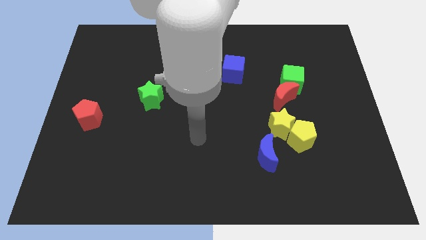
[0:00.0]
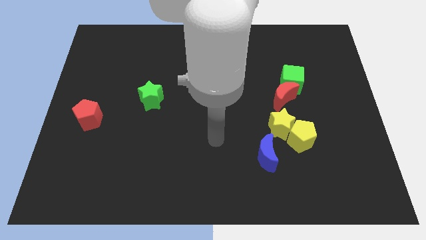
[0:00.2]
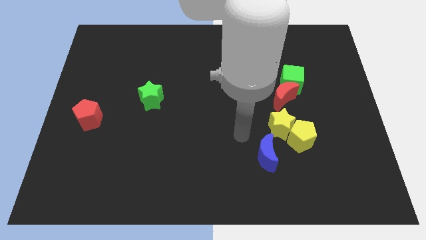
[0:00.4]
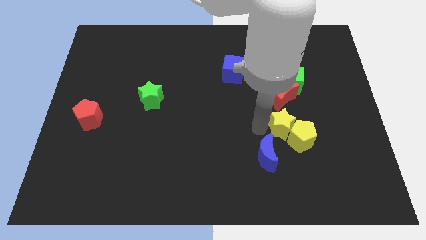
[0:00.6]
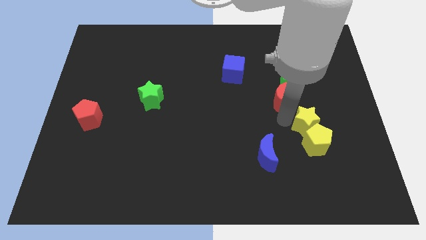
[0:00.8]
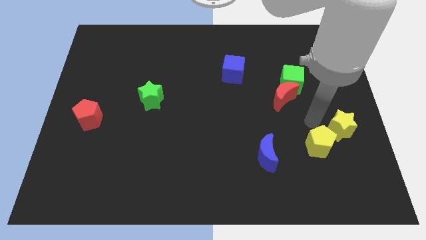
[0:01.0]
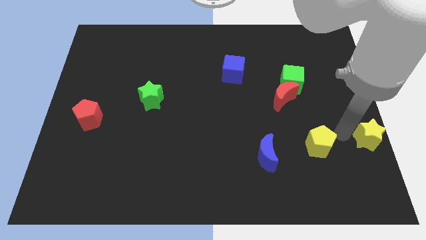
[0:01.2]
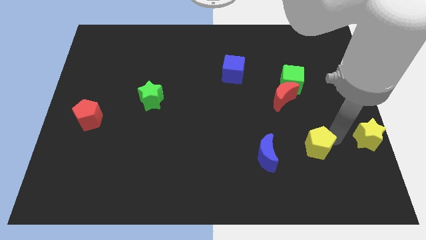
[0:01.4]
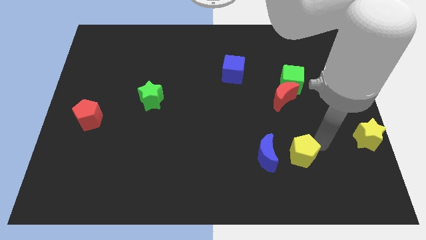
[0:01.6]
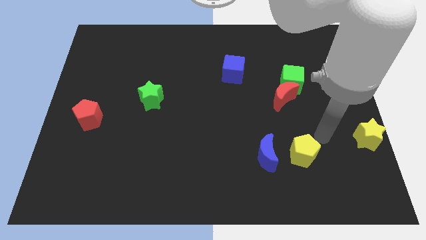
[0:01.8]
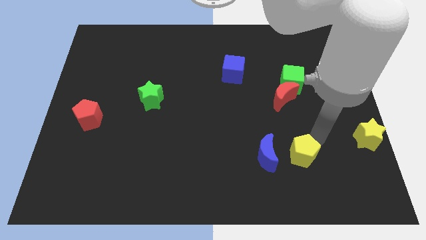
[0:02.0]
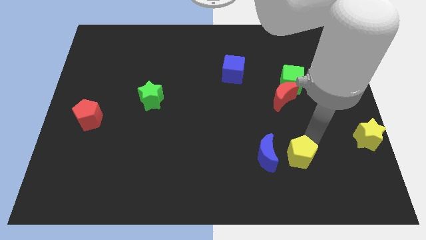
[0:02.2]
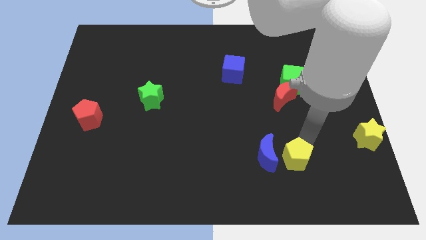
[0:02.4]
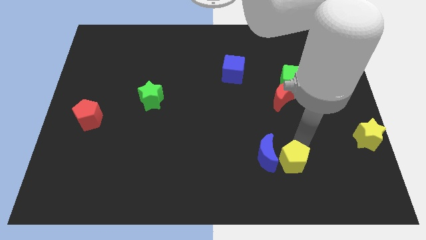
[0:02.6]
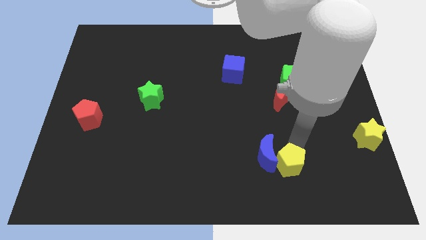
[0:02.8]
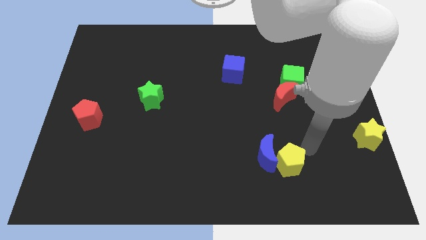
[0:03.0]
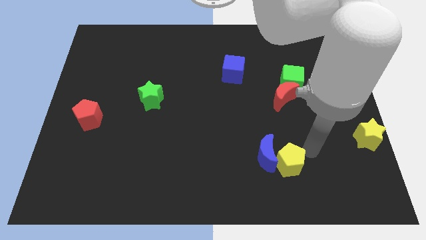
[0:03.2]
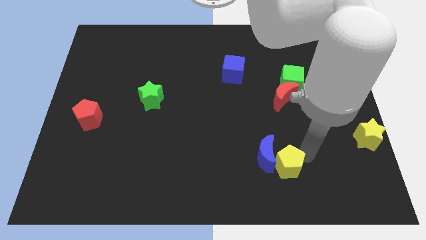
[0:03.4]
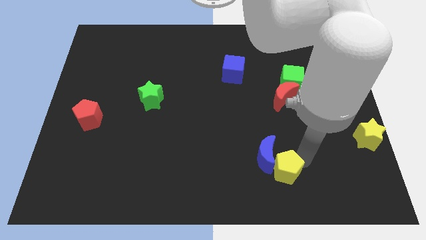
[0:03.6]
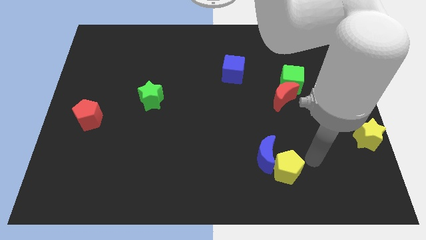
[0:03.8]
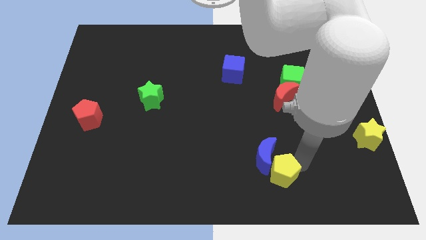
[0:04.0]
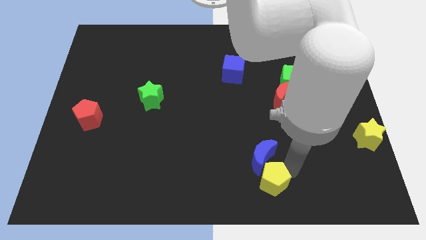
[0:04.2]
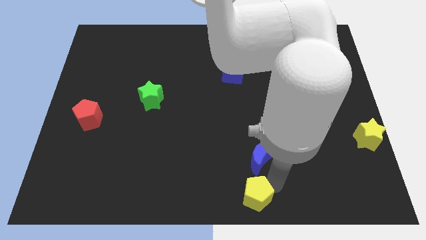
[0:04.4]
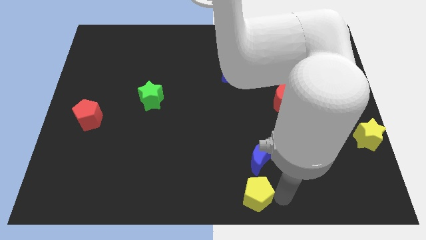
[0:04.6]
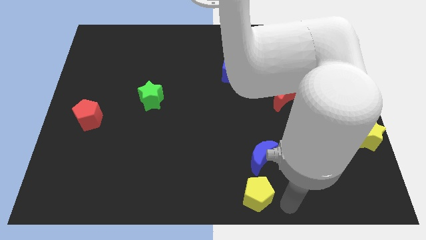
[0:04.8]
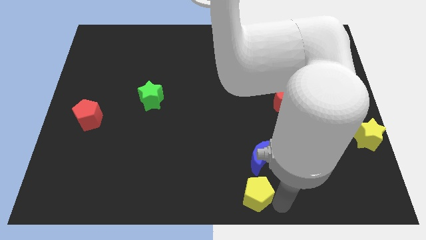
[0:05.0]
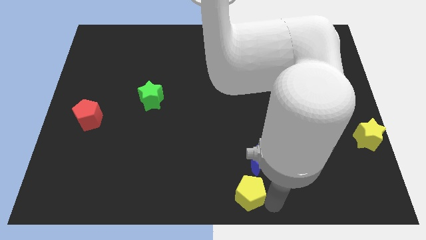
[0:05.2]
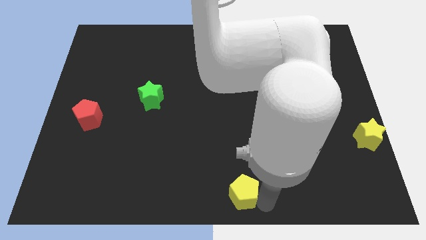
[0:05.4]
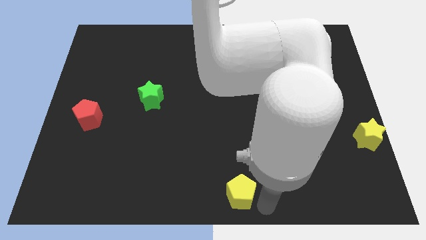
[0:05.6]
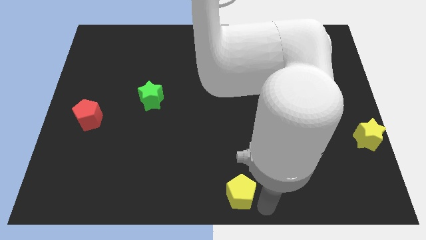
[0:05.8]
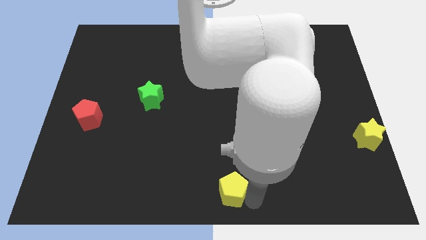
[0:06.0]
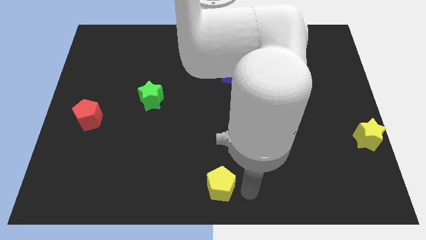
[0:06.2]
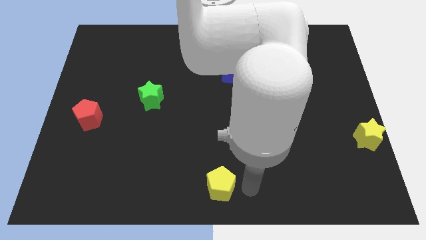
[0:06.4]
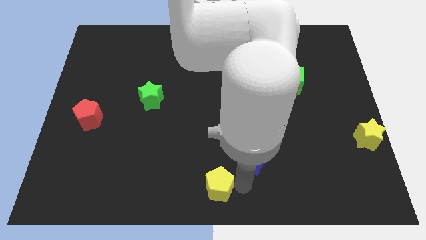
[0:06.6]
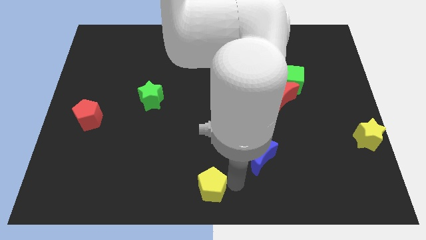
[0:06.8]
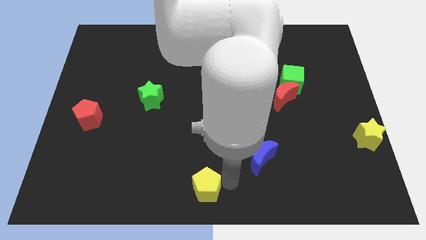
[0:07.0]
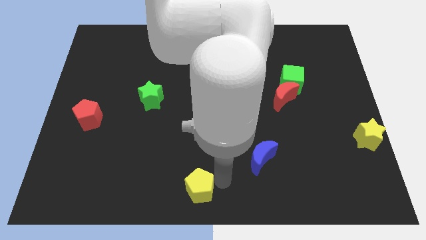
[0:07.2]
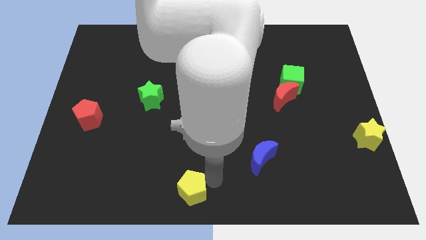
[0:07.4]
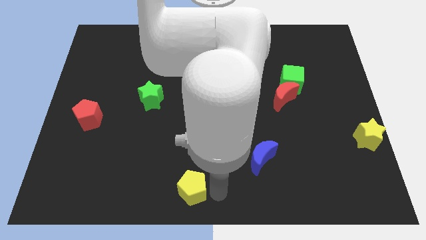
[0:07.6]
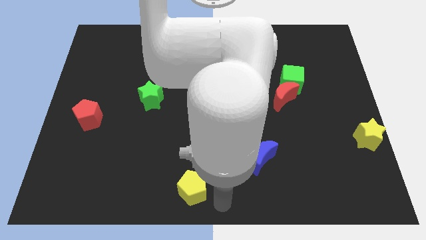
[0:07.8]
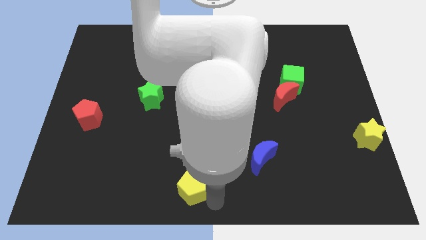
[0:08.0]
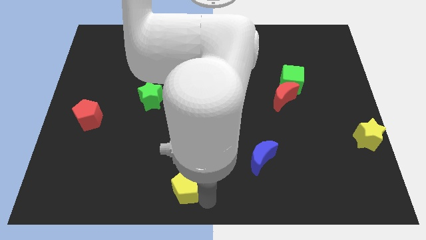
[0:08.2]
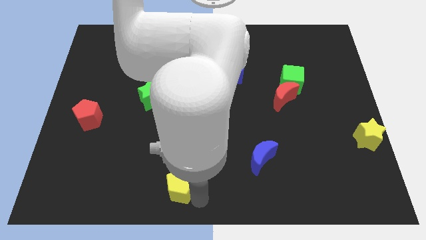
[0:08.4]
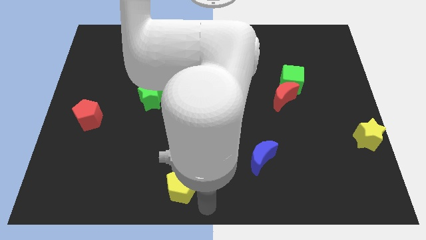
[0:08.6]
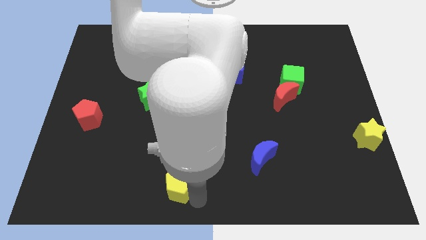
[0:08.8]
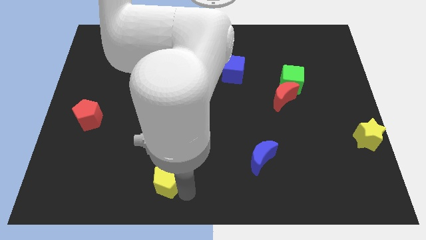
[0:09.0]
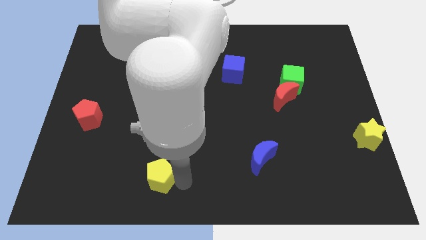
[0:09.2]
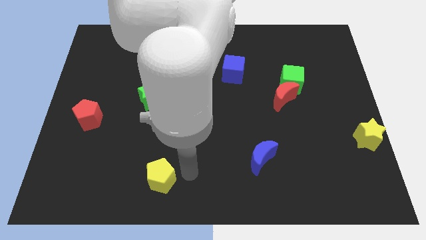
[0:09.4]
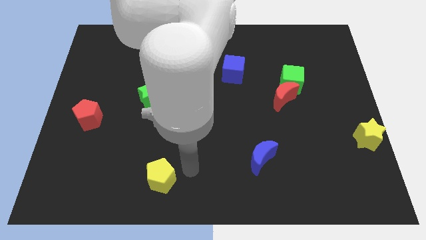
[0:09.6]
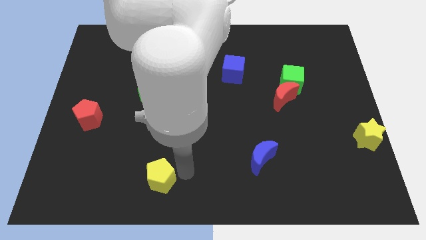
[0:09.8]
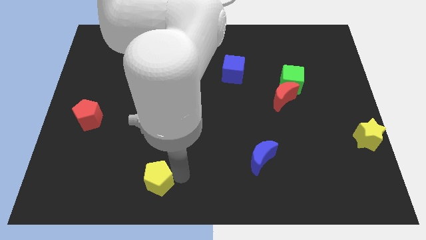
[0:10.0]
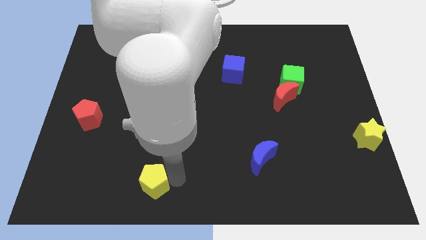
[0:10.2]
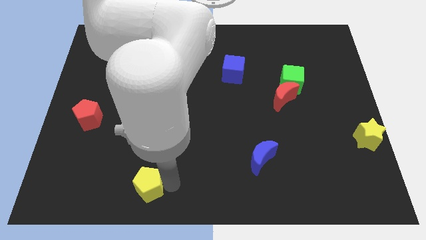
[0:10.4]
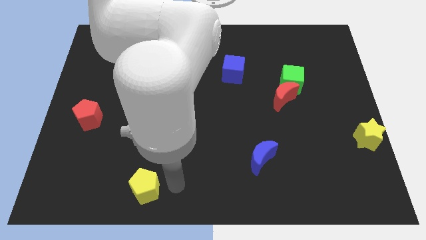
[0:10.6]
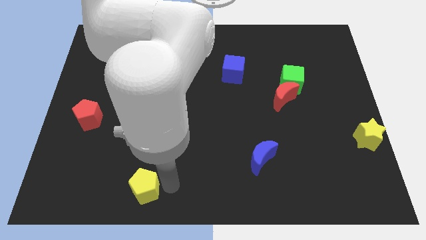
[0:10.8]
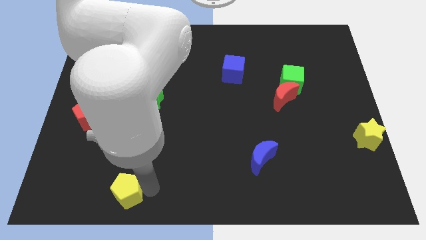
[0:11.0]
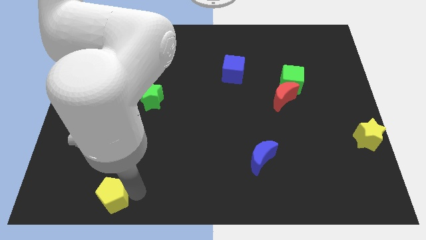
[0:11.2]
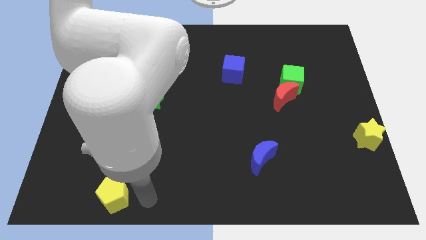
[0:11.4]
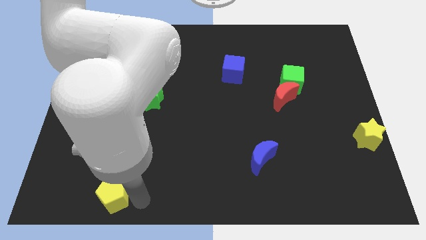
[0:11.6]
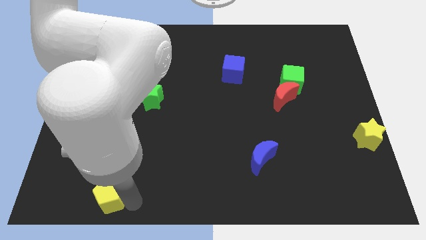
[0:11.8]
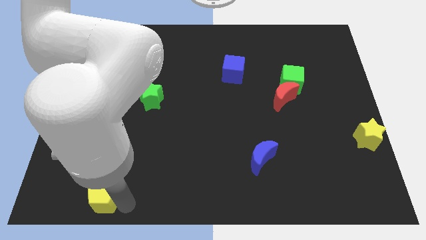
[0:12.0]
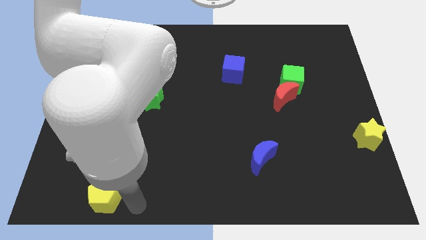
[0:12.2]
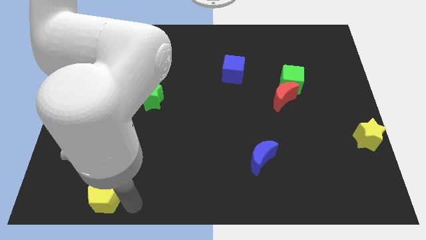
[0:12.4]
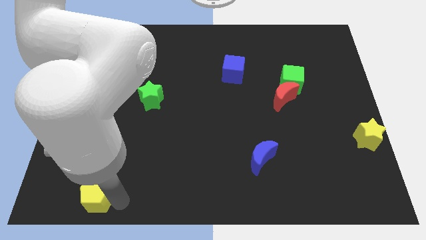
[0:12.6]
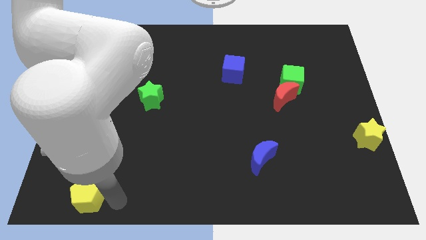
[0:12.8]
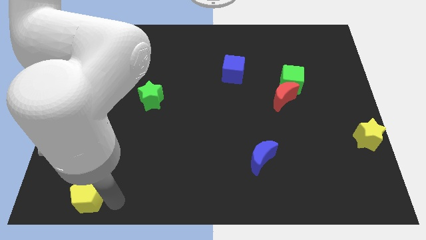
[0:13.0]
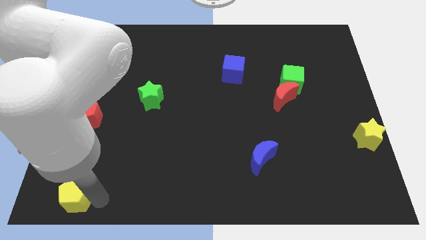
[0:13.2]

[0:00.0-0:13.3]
slide the yellow pentagon to the bottom left of the board

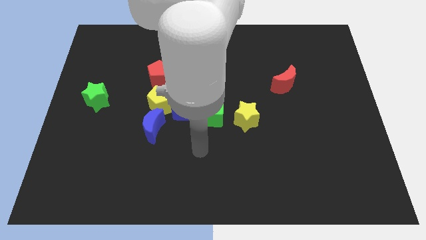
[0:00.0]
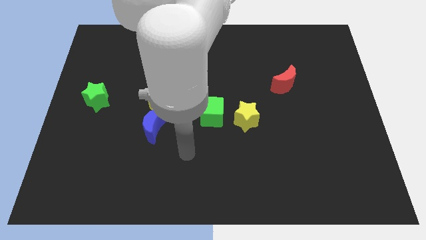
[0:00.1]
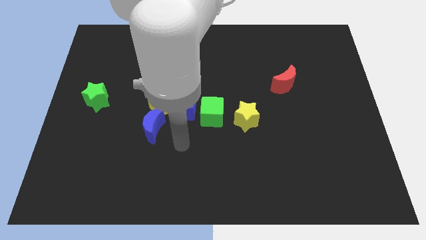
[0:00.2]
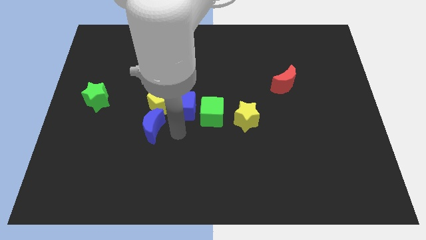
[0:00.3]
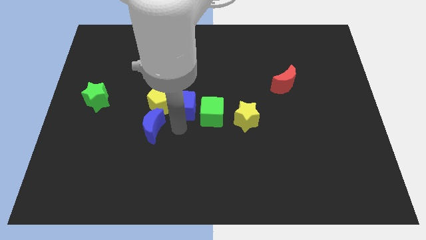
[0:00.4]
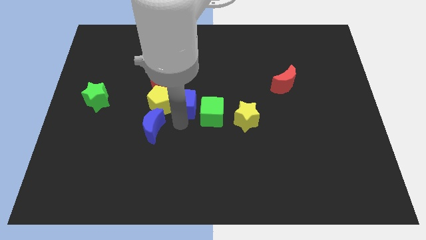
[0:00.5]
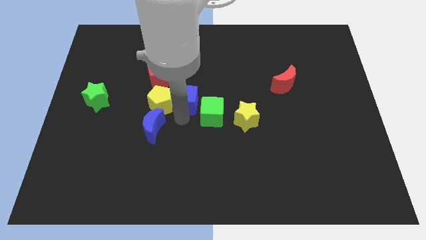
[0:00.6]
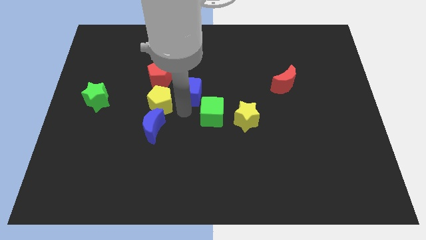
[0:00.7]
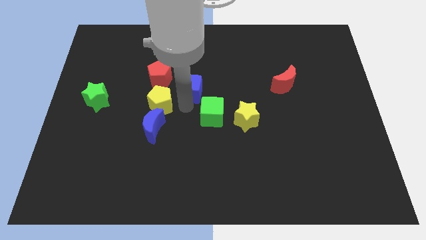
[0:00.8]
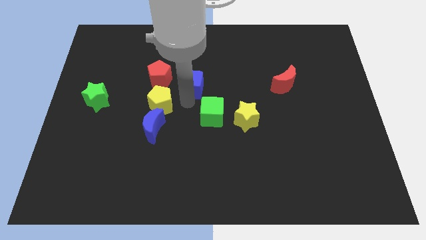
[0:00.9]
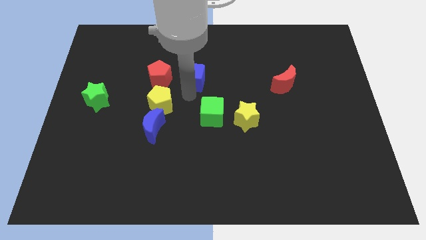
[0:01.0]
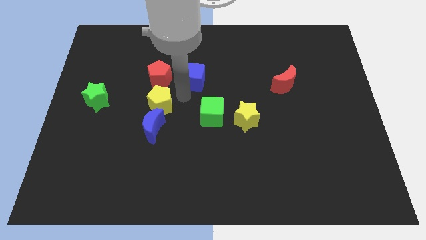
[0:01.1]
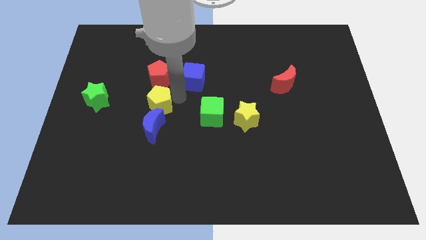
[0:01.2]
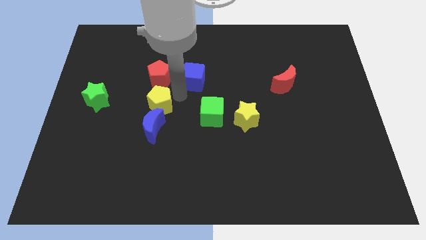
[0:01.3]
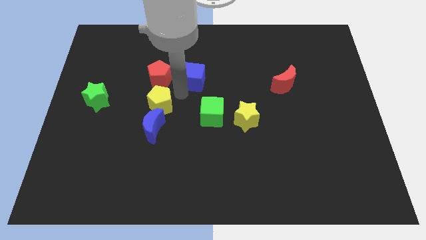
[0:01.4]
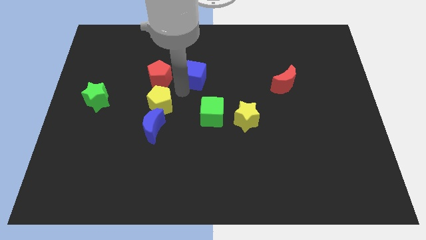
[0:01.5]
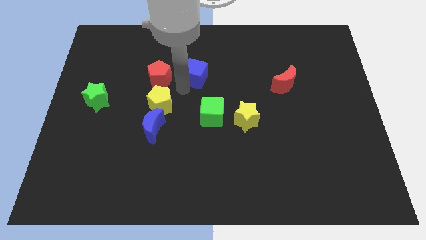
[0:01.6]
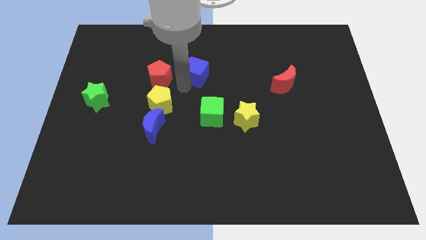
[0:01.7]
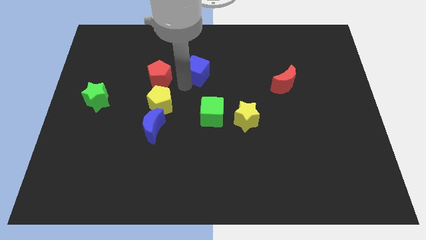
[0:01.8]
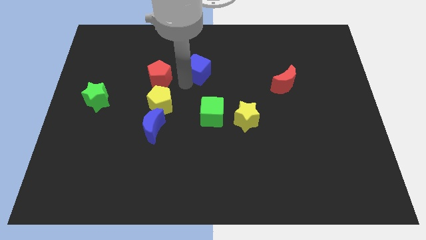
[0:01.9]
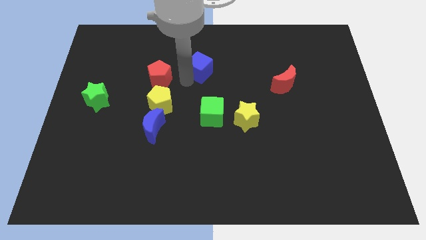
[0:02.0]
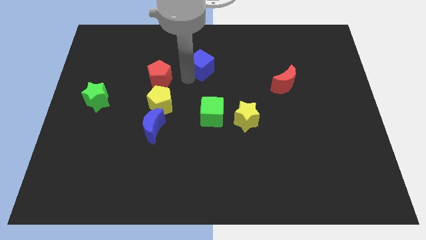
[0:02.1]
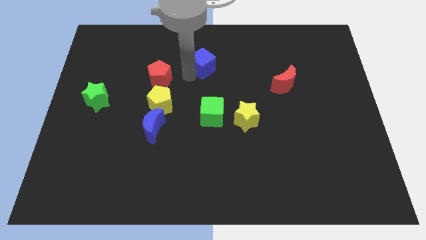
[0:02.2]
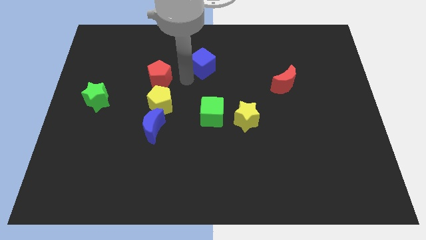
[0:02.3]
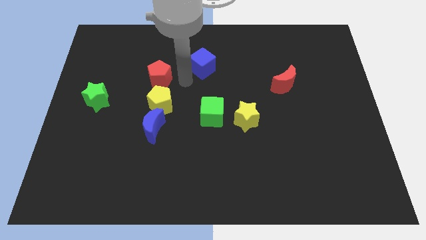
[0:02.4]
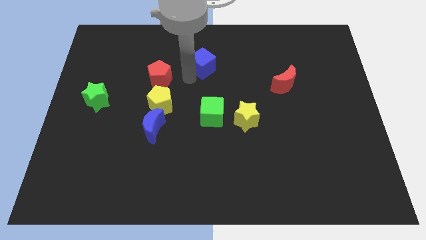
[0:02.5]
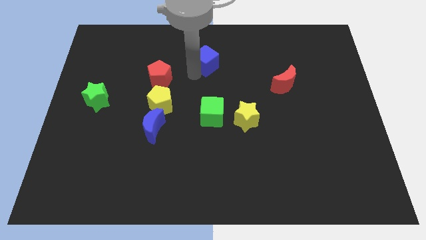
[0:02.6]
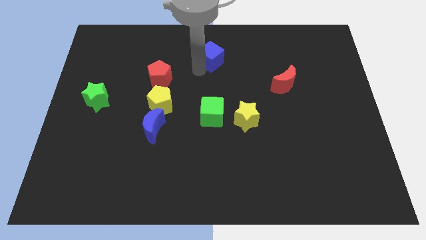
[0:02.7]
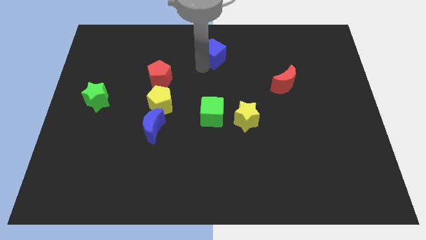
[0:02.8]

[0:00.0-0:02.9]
slide the blue cube to the towards your base
